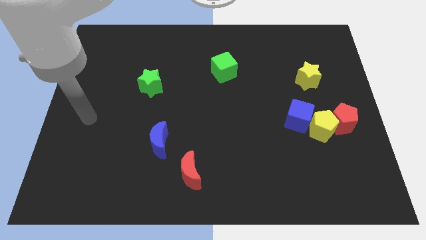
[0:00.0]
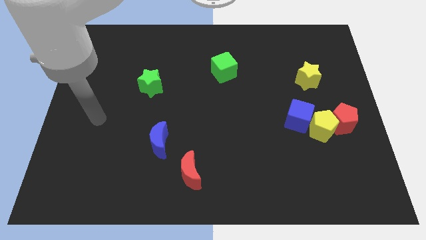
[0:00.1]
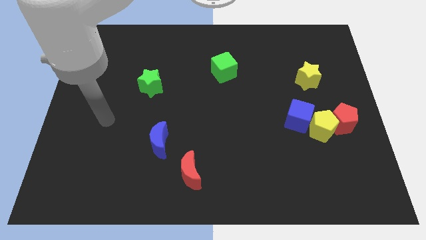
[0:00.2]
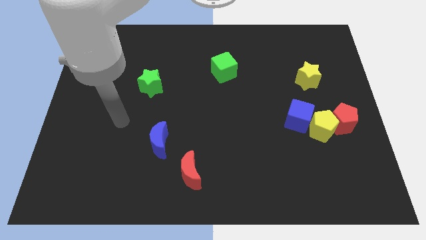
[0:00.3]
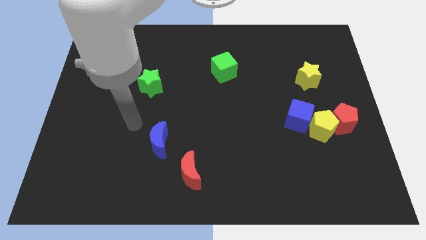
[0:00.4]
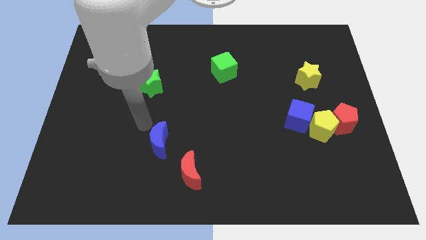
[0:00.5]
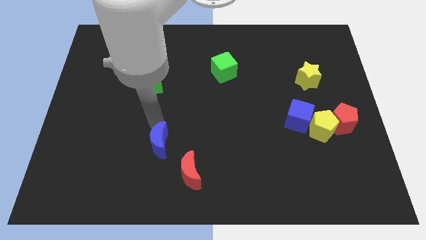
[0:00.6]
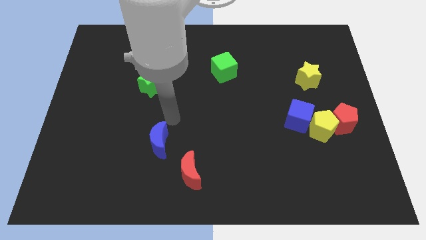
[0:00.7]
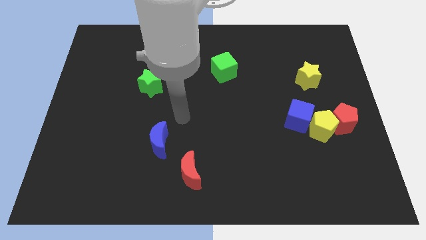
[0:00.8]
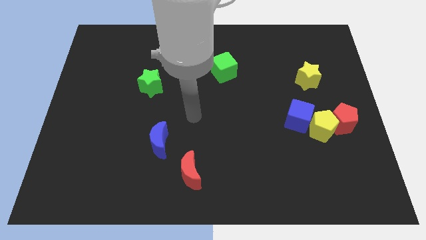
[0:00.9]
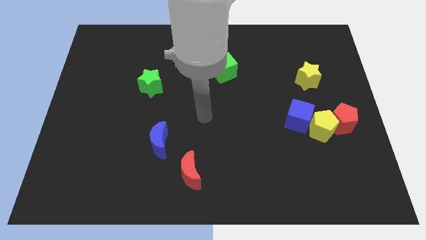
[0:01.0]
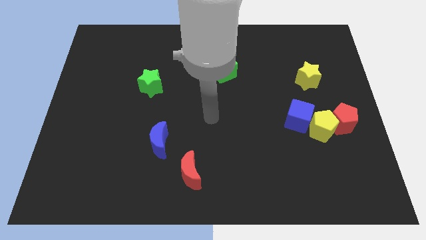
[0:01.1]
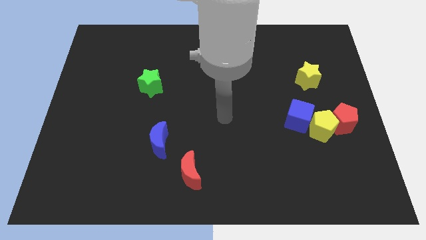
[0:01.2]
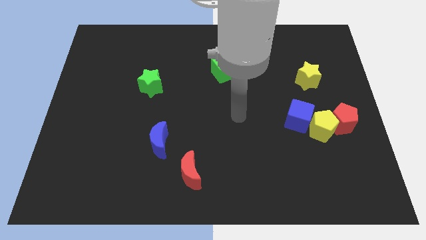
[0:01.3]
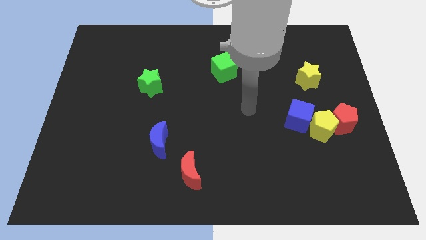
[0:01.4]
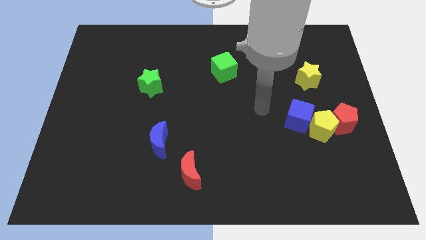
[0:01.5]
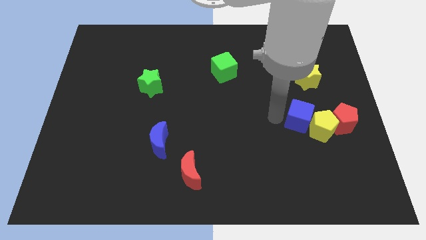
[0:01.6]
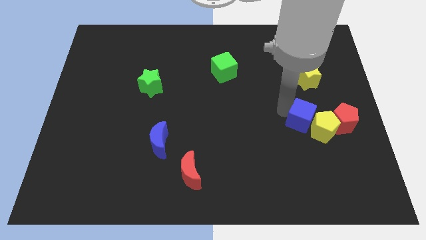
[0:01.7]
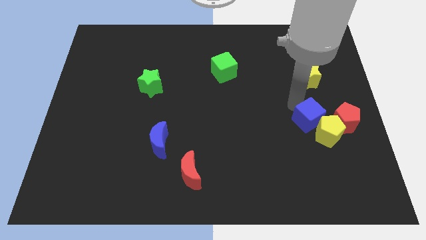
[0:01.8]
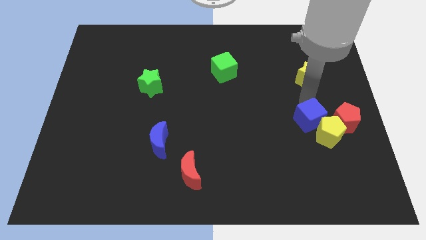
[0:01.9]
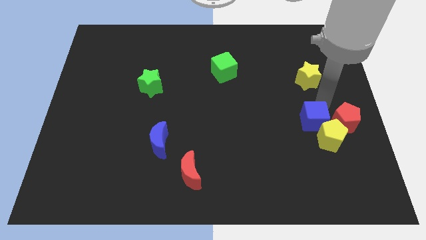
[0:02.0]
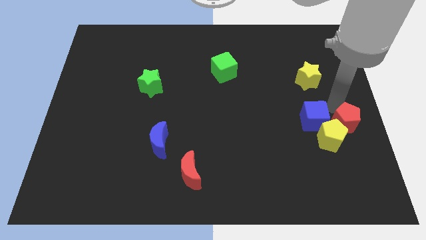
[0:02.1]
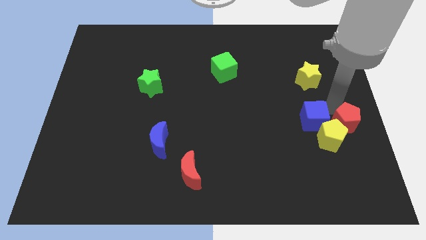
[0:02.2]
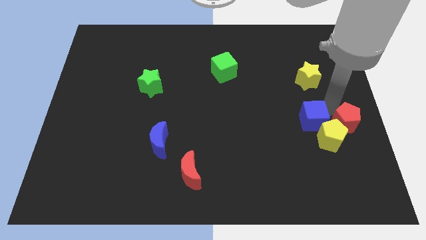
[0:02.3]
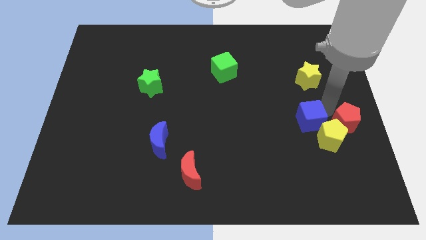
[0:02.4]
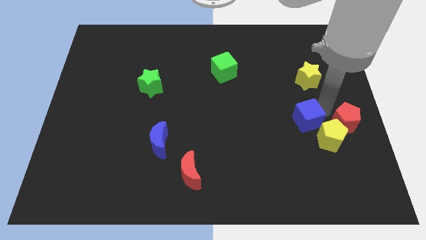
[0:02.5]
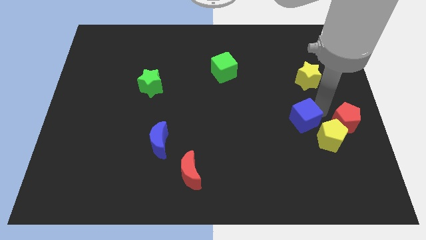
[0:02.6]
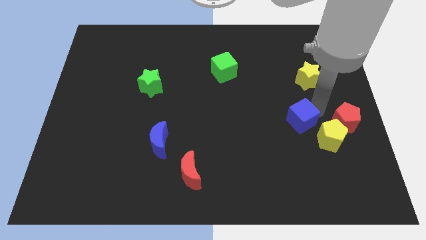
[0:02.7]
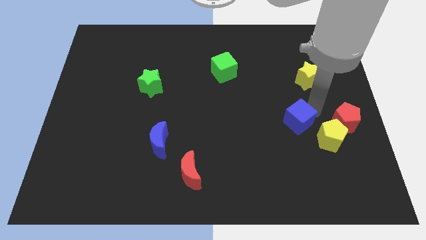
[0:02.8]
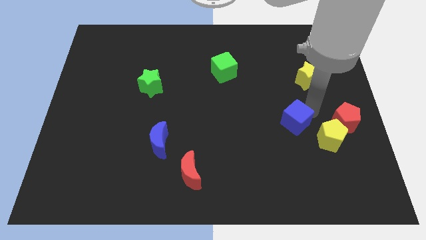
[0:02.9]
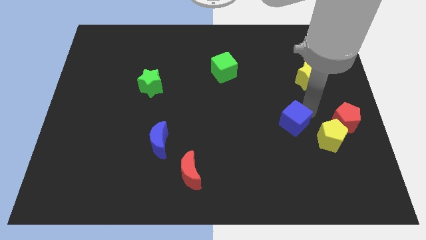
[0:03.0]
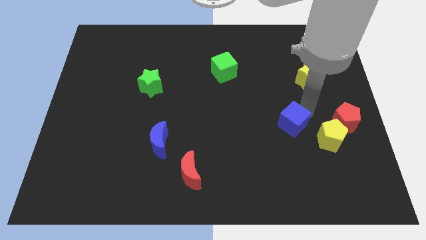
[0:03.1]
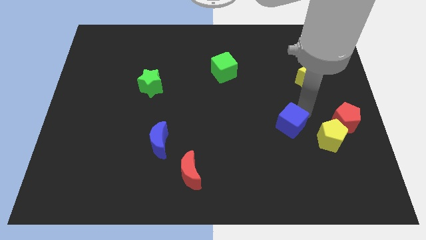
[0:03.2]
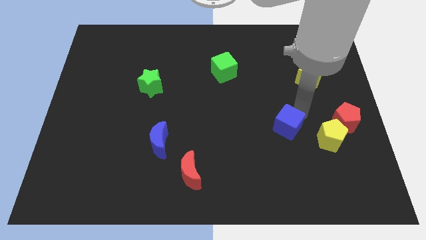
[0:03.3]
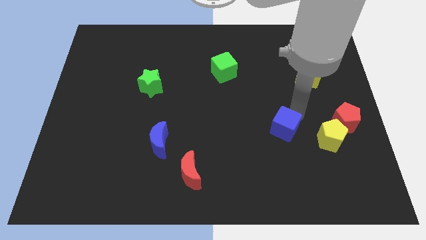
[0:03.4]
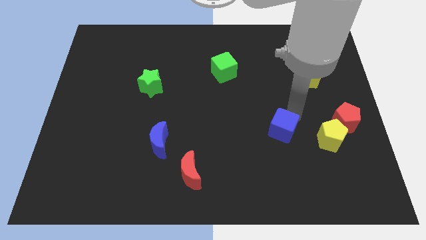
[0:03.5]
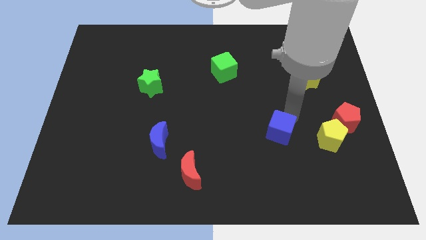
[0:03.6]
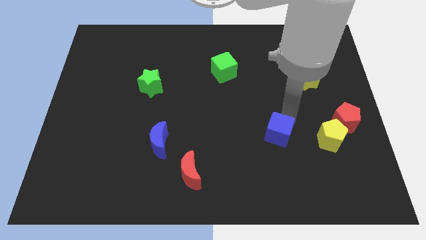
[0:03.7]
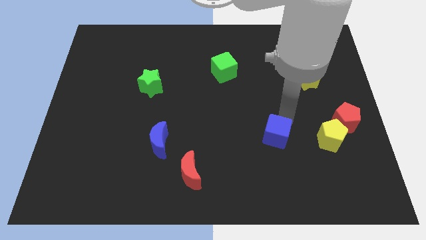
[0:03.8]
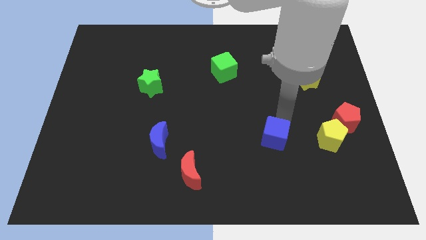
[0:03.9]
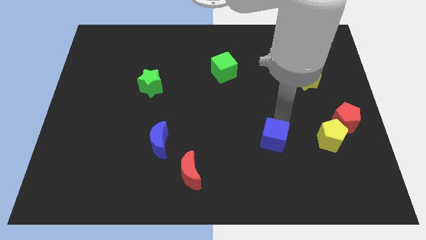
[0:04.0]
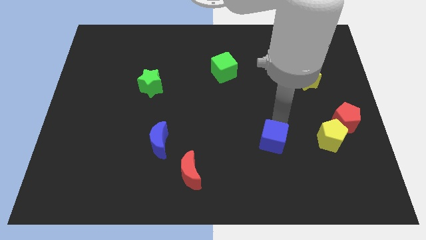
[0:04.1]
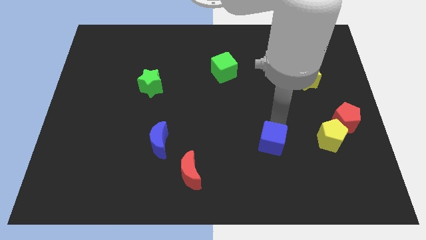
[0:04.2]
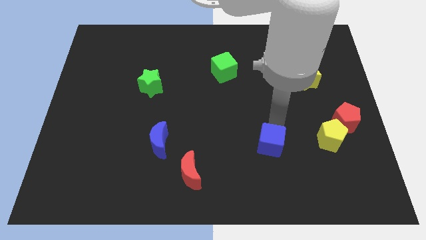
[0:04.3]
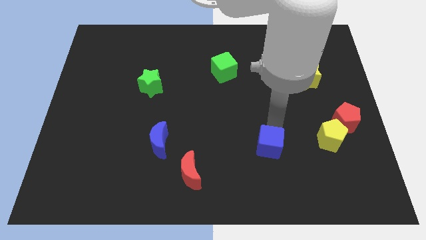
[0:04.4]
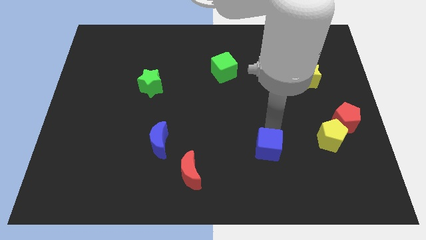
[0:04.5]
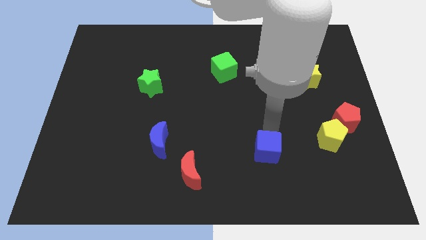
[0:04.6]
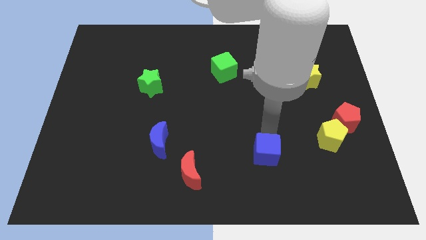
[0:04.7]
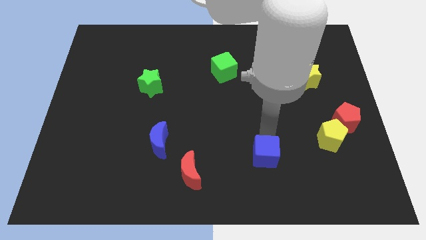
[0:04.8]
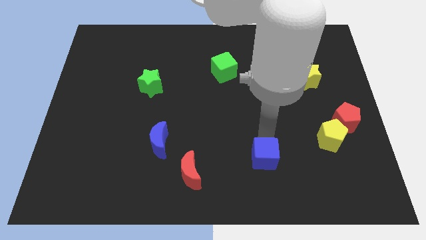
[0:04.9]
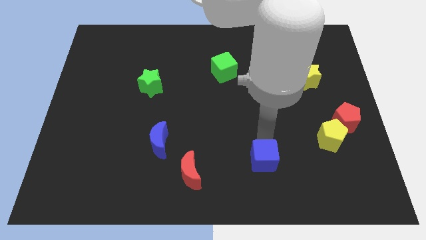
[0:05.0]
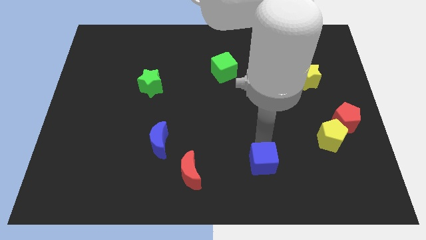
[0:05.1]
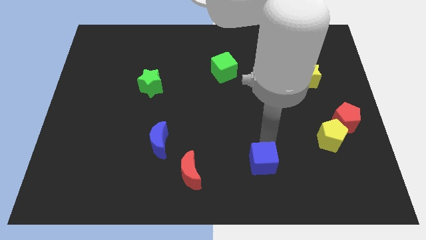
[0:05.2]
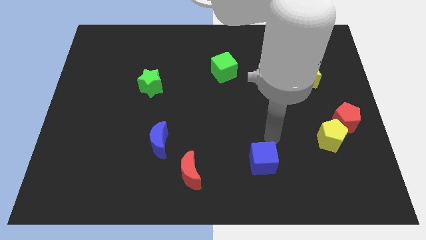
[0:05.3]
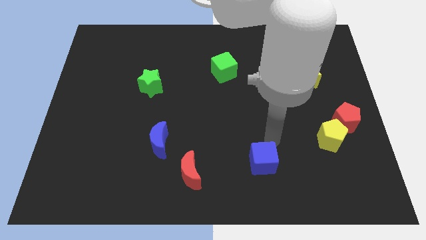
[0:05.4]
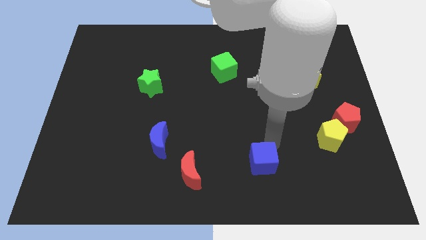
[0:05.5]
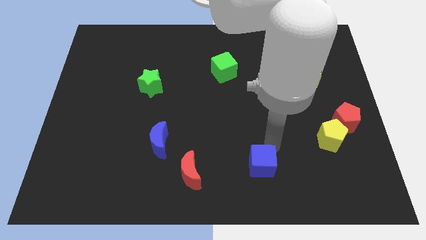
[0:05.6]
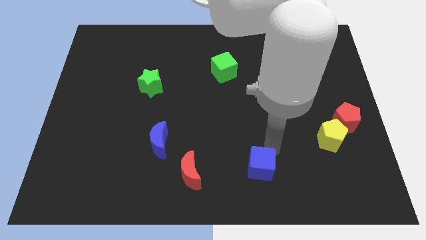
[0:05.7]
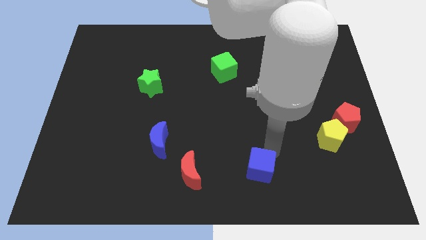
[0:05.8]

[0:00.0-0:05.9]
put the blue cube to the bottom side

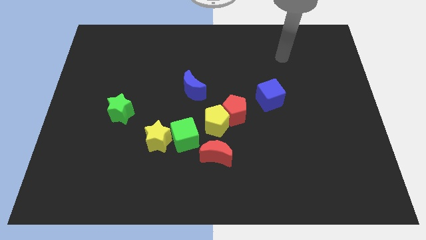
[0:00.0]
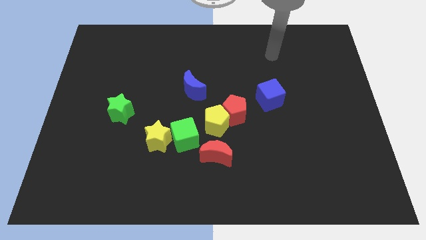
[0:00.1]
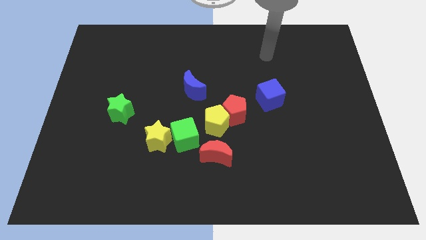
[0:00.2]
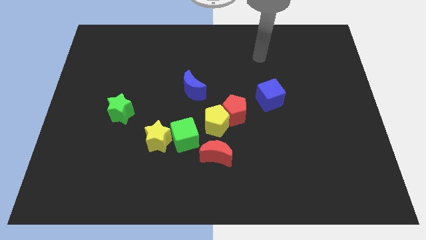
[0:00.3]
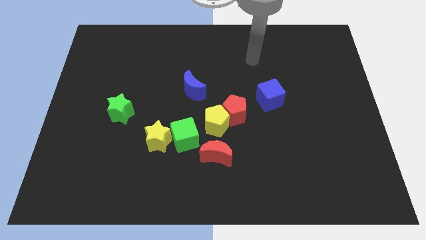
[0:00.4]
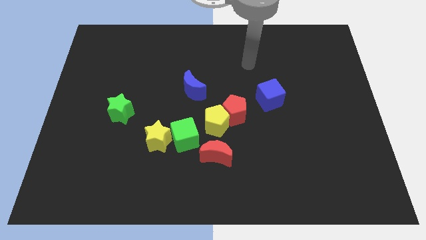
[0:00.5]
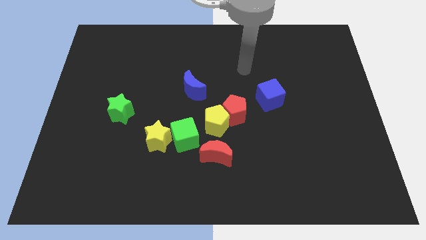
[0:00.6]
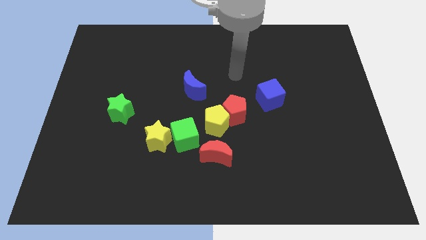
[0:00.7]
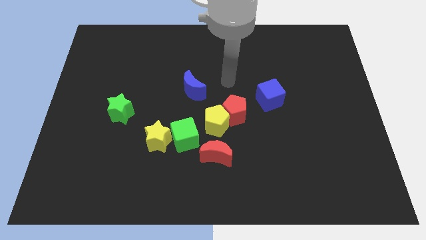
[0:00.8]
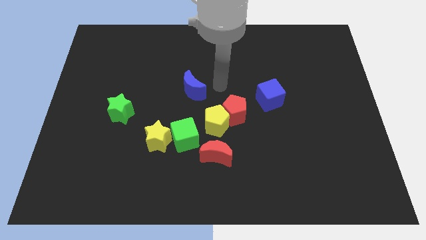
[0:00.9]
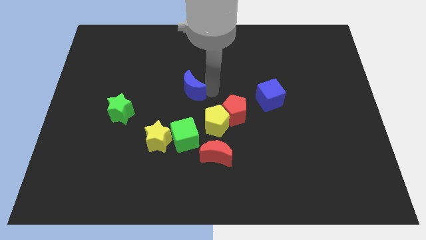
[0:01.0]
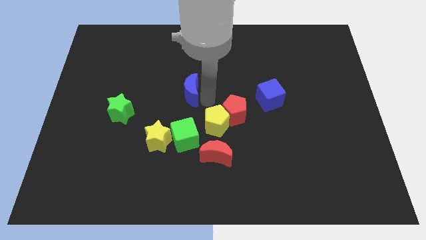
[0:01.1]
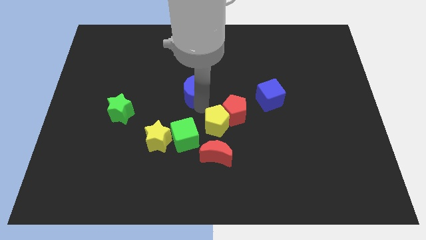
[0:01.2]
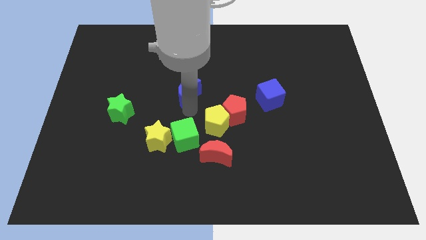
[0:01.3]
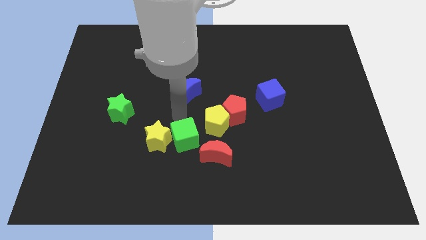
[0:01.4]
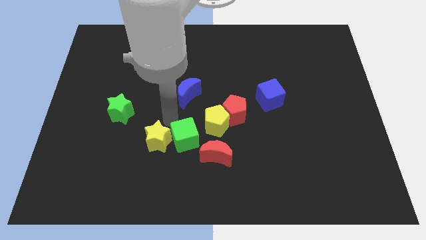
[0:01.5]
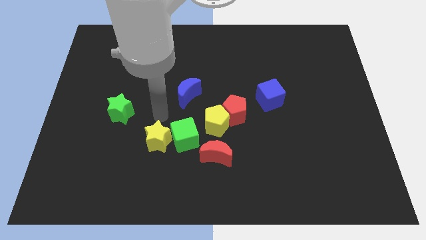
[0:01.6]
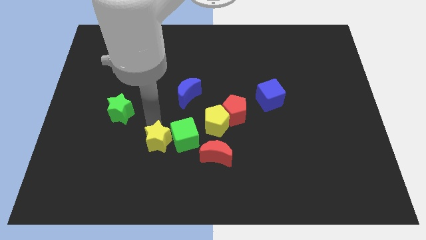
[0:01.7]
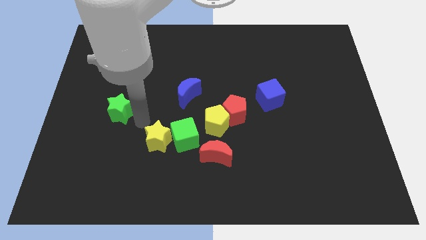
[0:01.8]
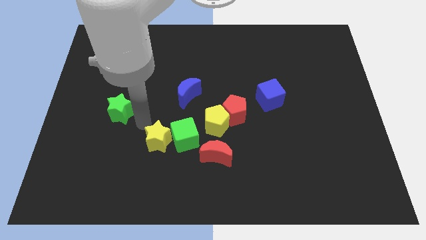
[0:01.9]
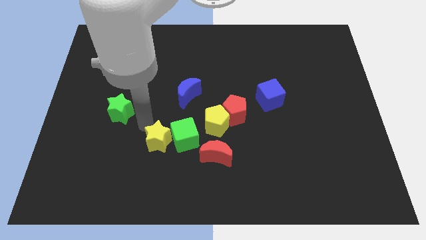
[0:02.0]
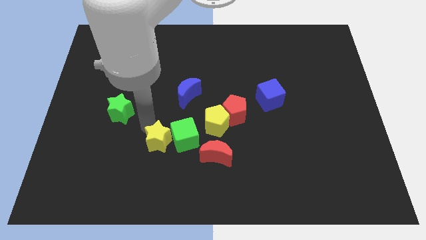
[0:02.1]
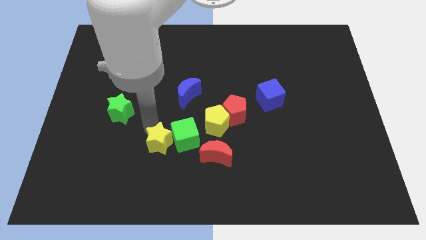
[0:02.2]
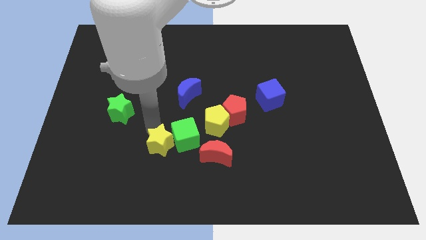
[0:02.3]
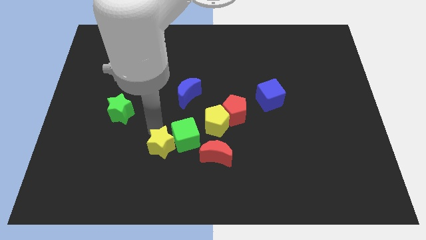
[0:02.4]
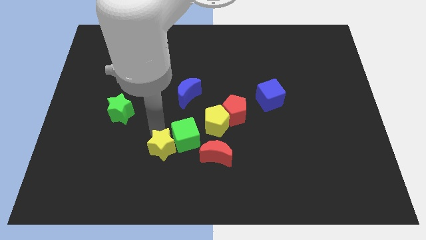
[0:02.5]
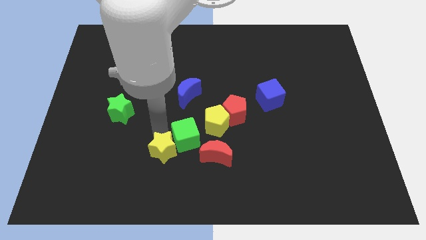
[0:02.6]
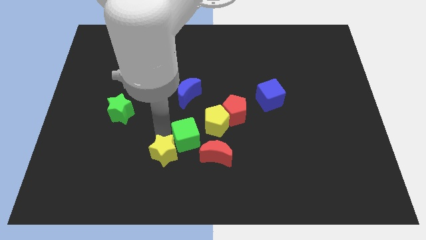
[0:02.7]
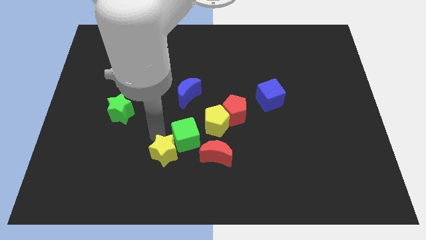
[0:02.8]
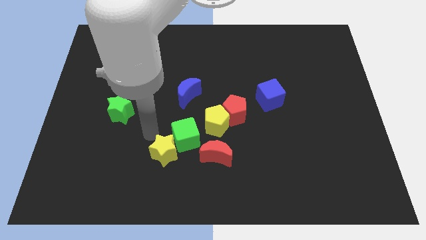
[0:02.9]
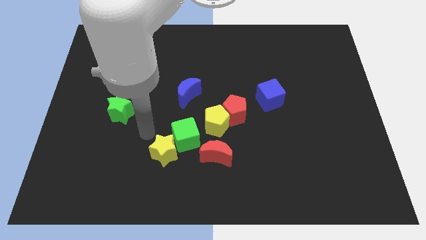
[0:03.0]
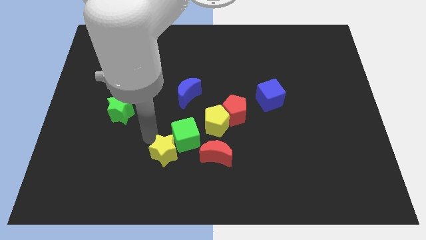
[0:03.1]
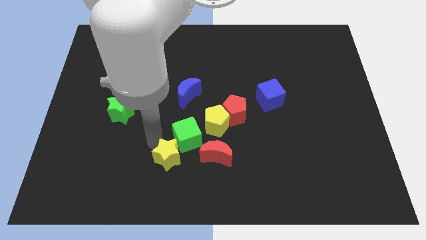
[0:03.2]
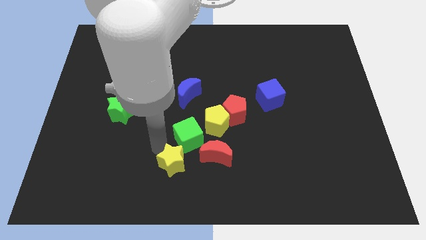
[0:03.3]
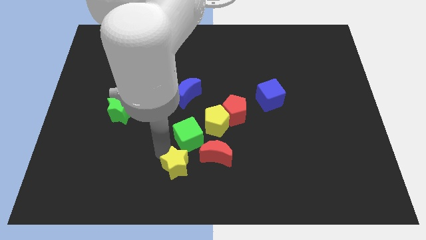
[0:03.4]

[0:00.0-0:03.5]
put the yellow star to the bottom
